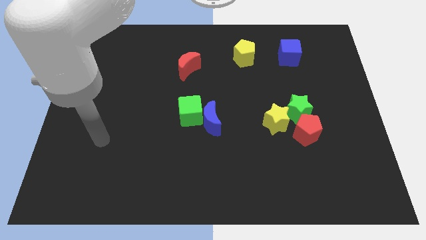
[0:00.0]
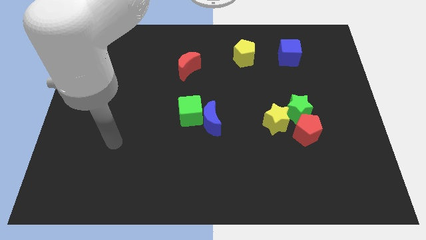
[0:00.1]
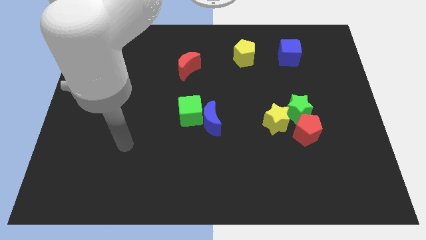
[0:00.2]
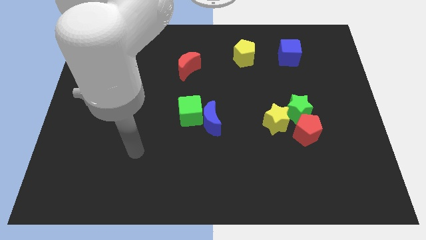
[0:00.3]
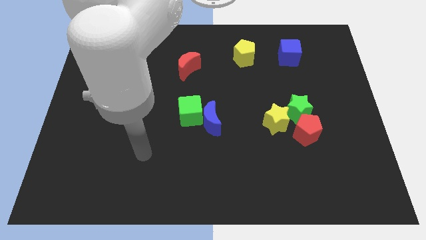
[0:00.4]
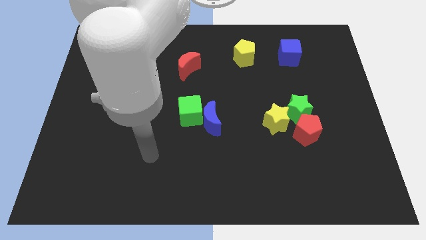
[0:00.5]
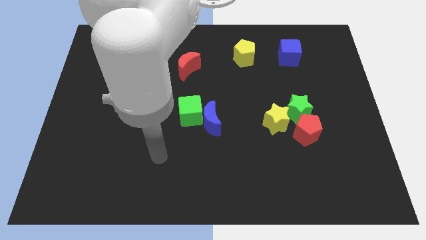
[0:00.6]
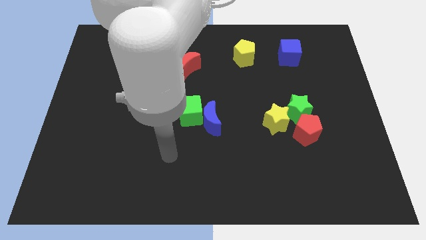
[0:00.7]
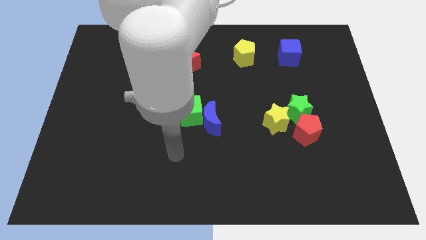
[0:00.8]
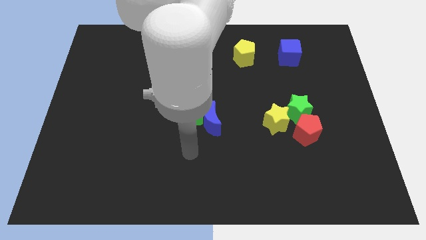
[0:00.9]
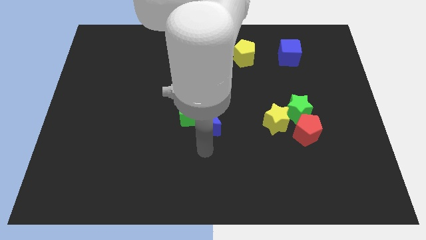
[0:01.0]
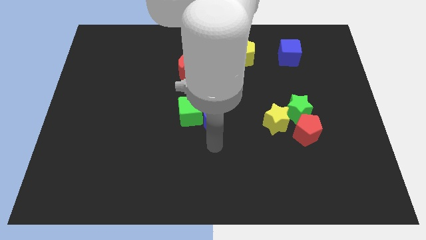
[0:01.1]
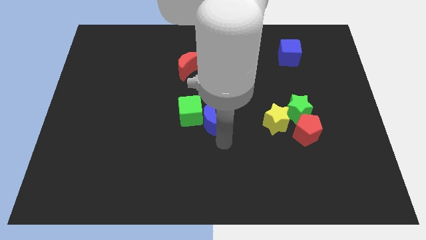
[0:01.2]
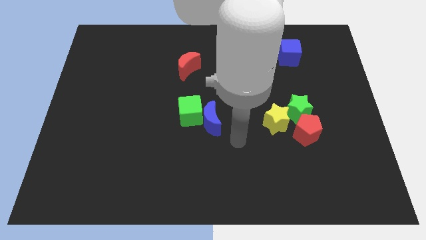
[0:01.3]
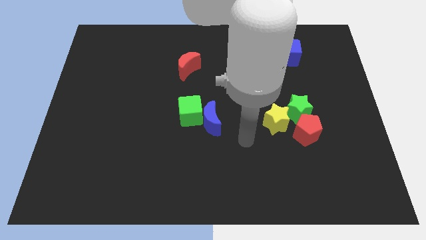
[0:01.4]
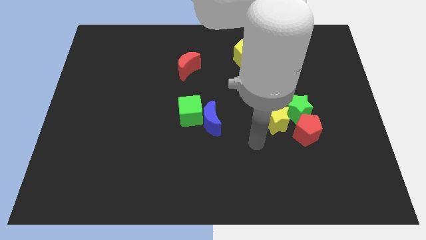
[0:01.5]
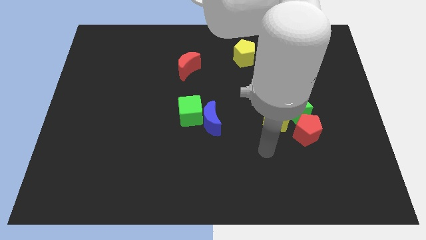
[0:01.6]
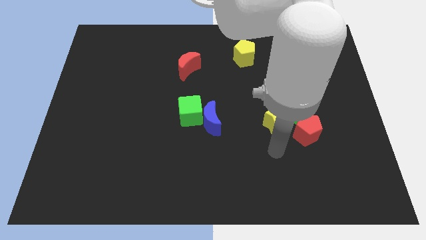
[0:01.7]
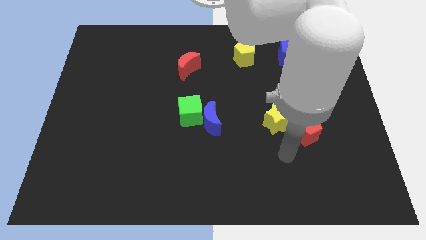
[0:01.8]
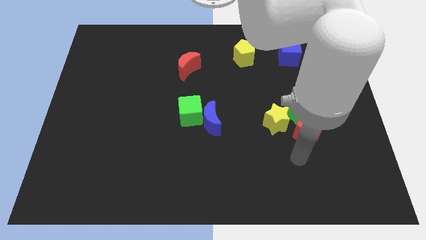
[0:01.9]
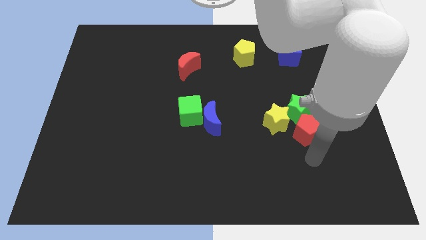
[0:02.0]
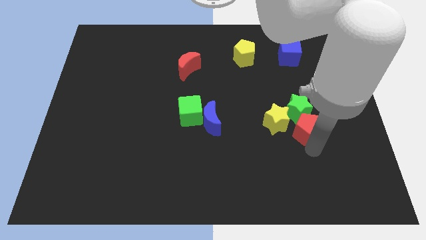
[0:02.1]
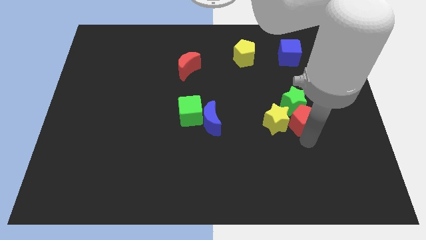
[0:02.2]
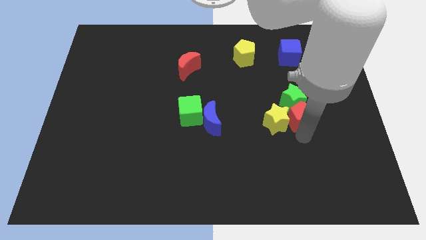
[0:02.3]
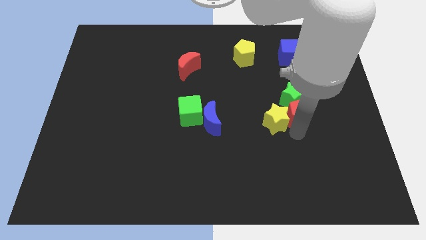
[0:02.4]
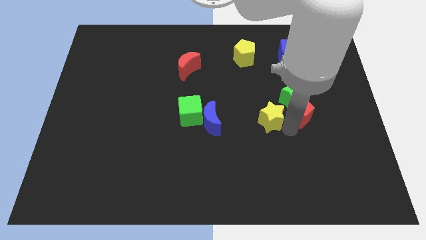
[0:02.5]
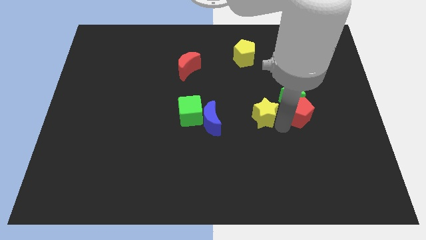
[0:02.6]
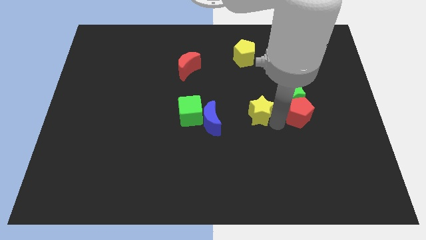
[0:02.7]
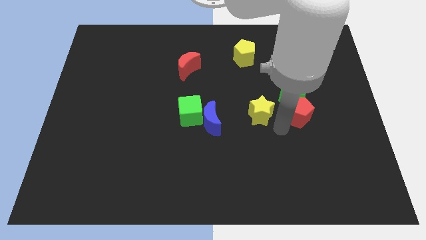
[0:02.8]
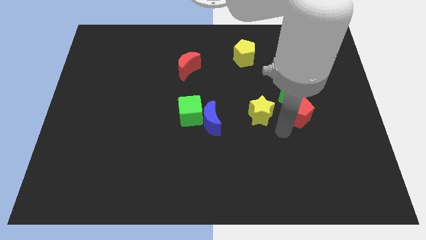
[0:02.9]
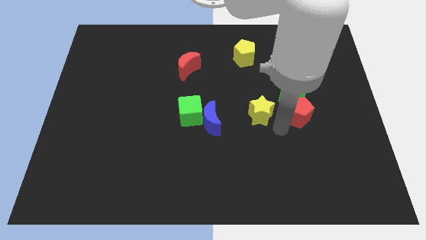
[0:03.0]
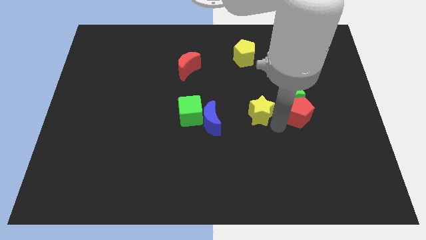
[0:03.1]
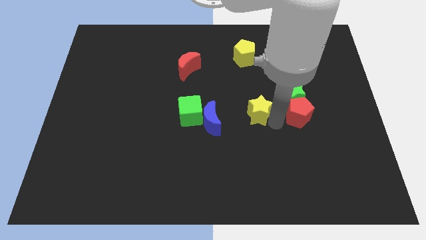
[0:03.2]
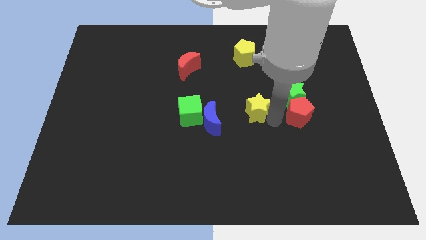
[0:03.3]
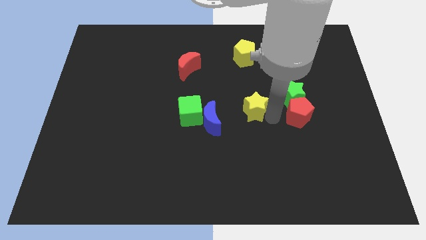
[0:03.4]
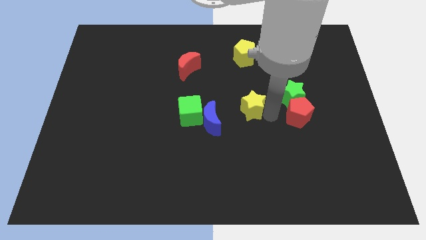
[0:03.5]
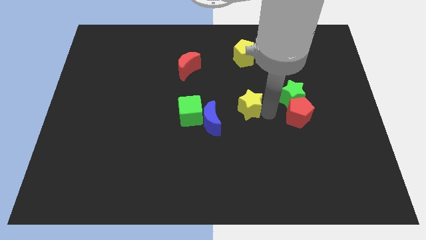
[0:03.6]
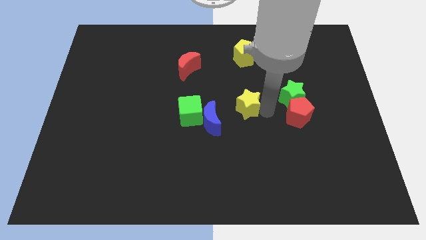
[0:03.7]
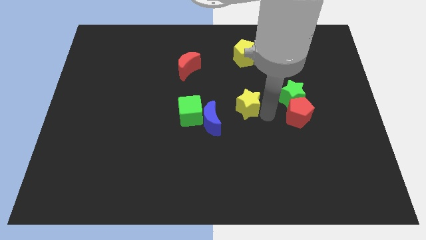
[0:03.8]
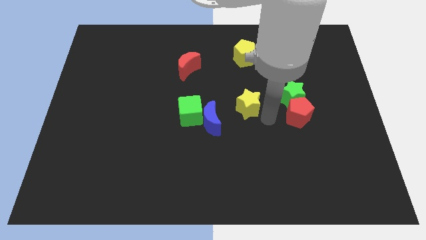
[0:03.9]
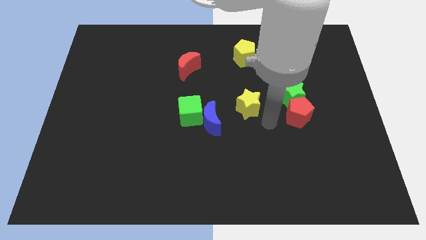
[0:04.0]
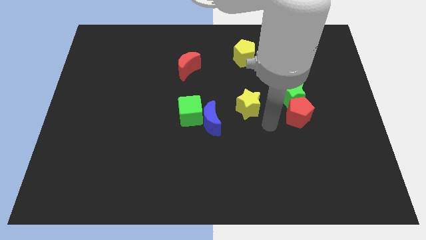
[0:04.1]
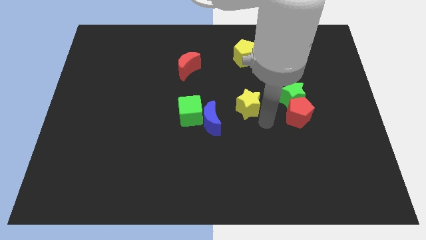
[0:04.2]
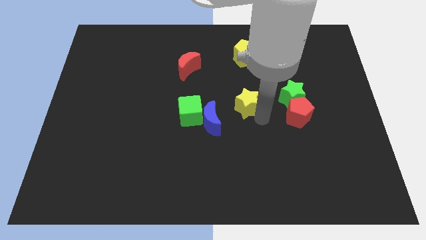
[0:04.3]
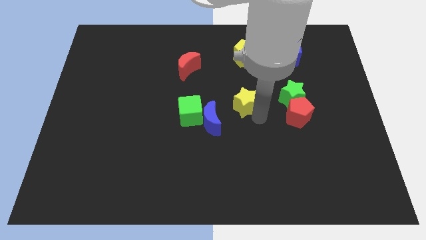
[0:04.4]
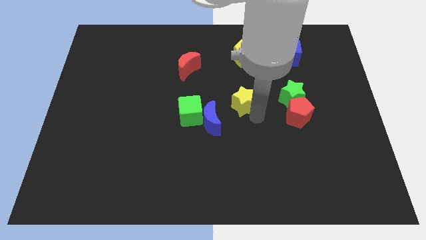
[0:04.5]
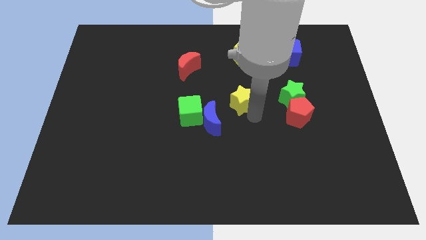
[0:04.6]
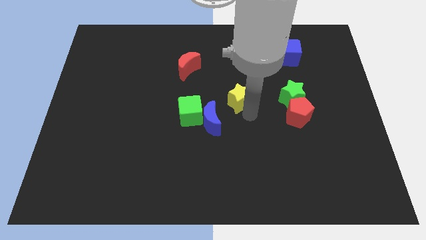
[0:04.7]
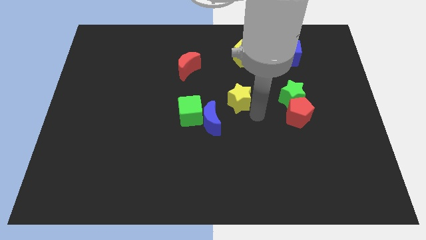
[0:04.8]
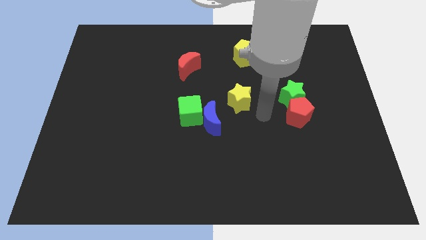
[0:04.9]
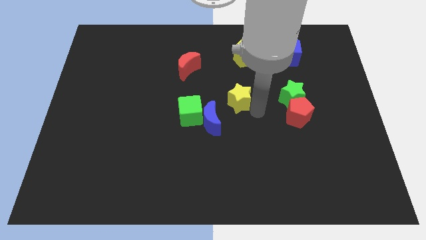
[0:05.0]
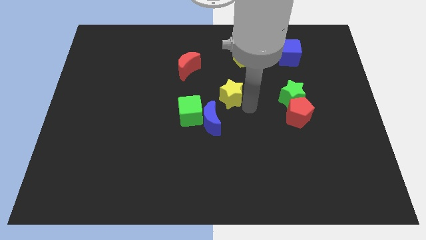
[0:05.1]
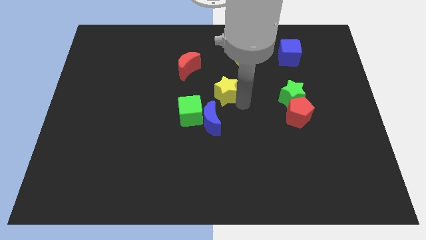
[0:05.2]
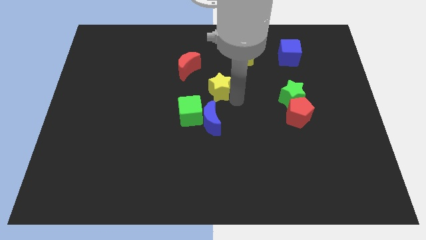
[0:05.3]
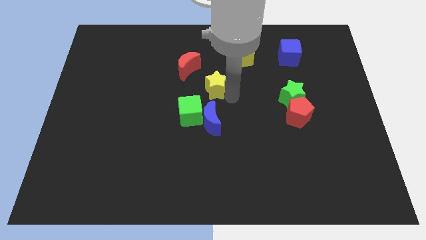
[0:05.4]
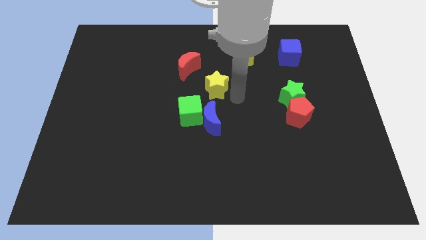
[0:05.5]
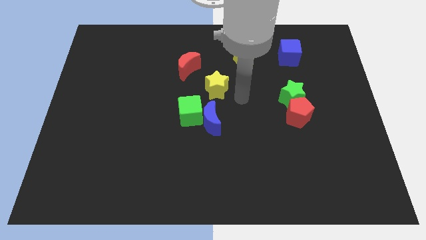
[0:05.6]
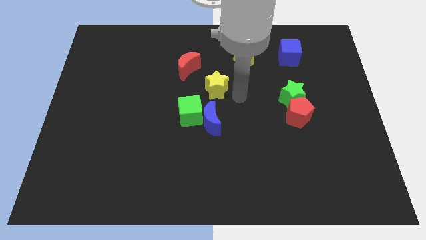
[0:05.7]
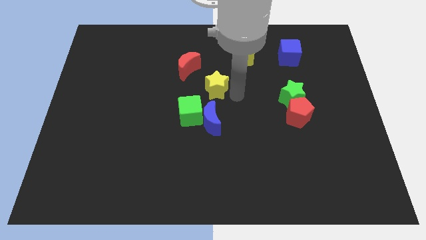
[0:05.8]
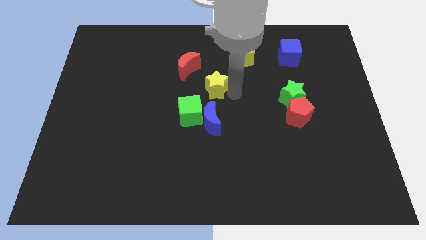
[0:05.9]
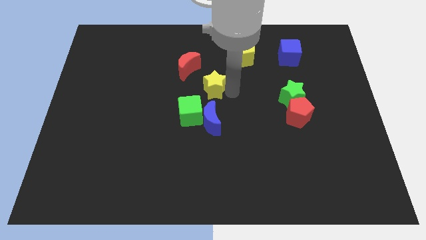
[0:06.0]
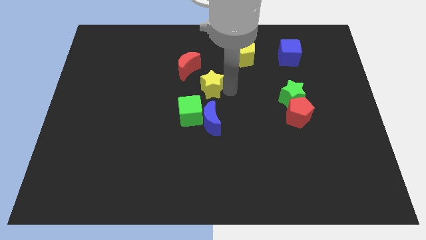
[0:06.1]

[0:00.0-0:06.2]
put the yellow star above the green cube

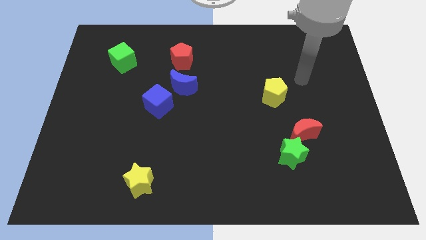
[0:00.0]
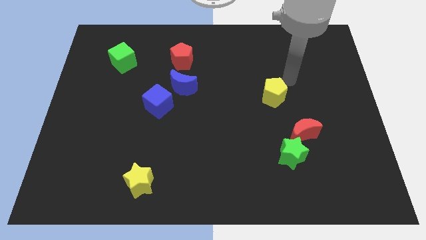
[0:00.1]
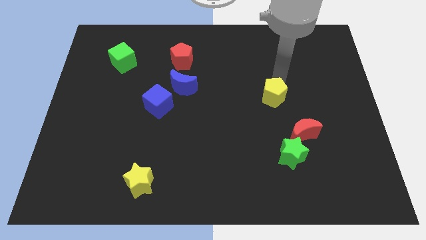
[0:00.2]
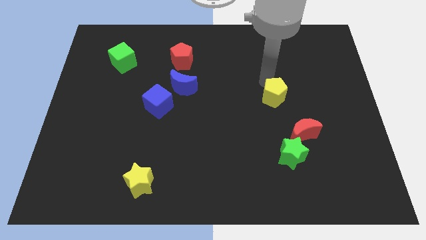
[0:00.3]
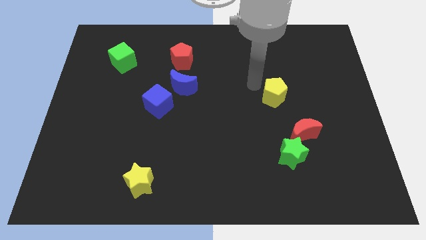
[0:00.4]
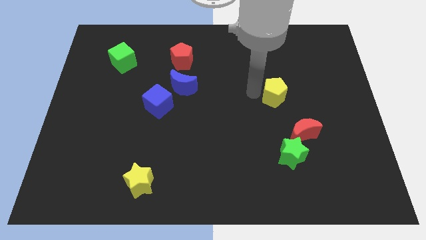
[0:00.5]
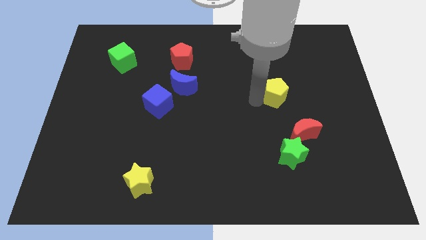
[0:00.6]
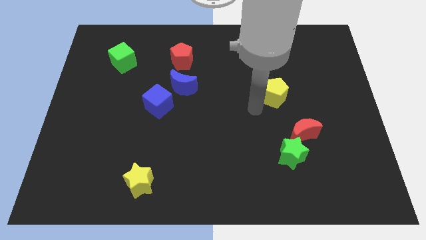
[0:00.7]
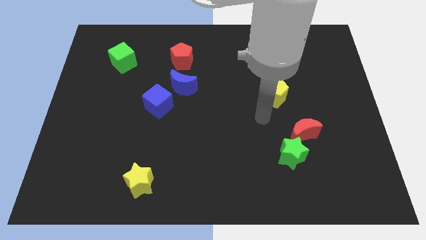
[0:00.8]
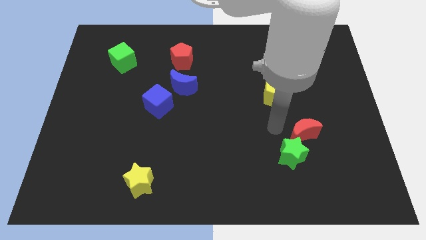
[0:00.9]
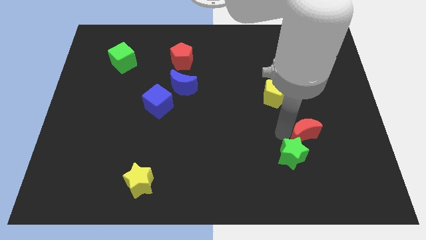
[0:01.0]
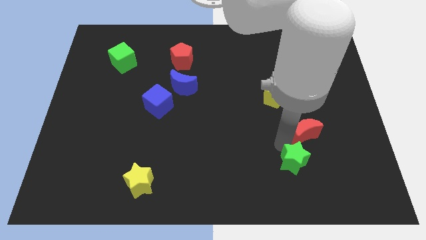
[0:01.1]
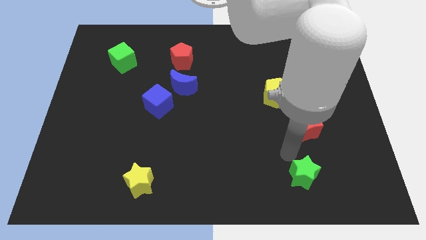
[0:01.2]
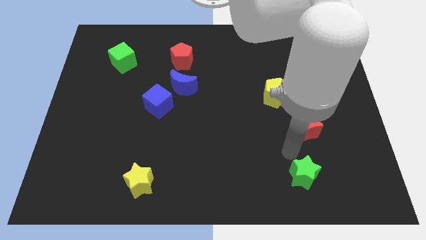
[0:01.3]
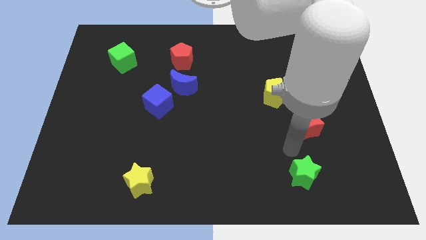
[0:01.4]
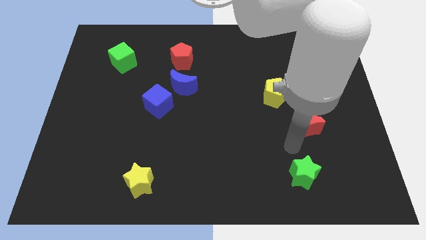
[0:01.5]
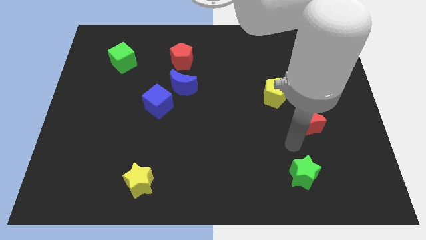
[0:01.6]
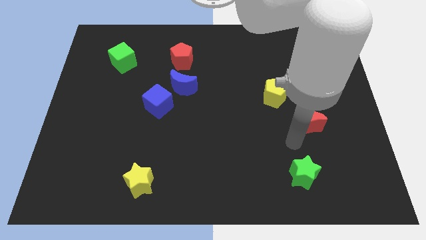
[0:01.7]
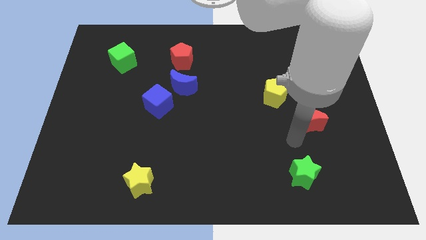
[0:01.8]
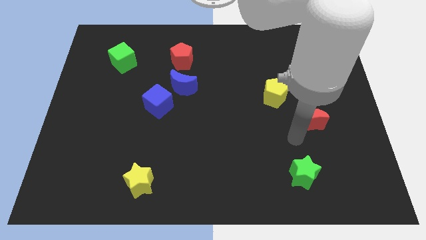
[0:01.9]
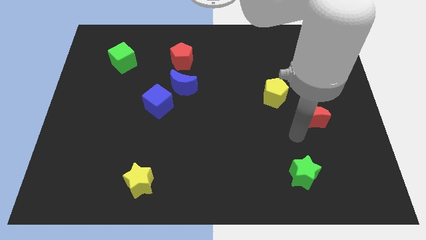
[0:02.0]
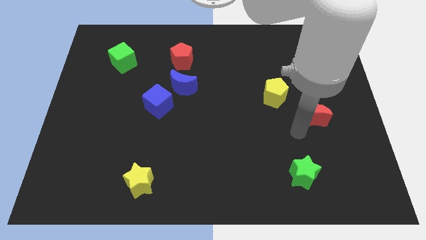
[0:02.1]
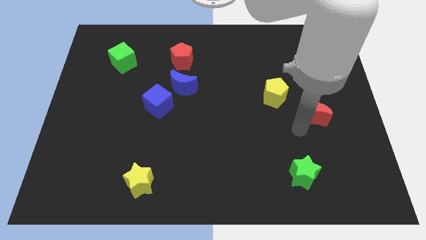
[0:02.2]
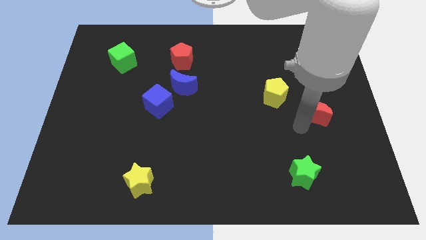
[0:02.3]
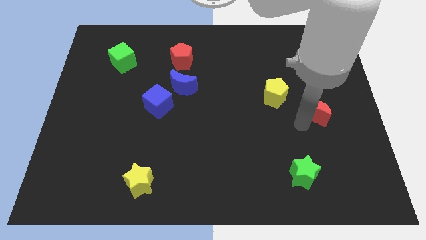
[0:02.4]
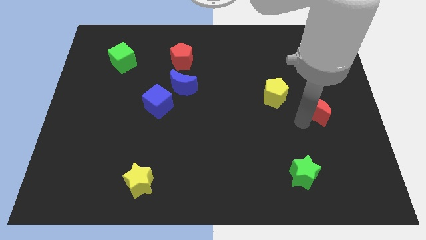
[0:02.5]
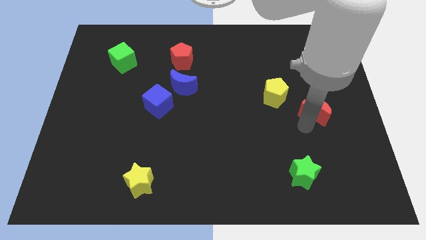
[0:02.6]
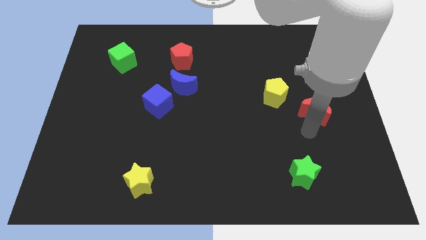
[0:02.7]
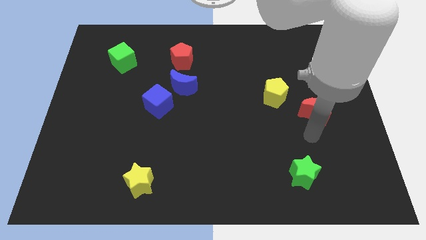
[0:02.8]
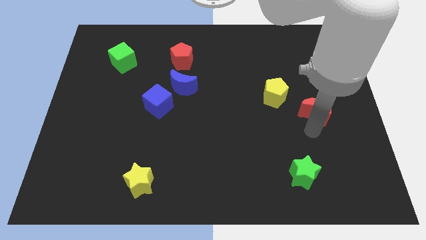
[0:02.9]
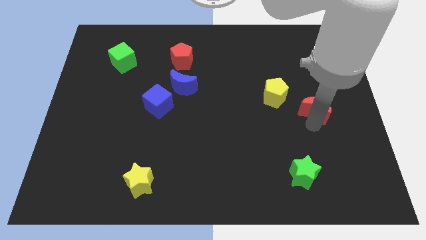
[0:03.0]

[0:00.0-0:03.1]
push the red moon to the right of the yellow pentagon
